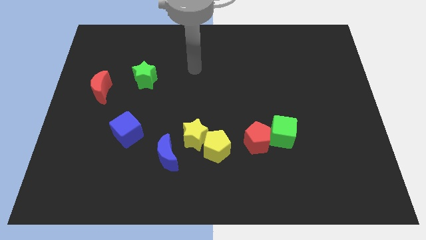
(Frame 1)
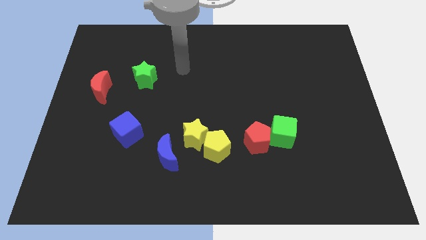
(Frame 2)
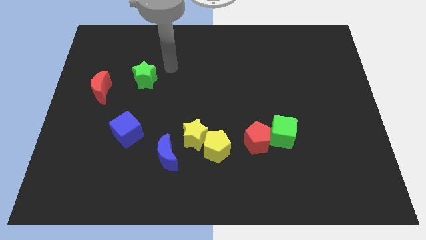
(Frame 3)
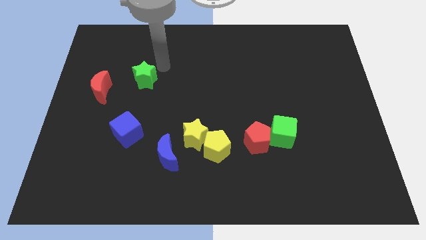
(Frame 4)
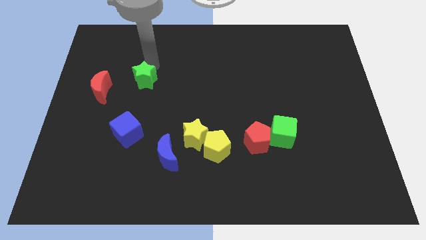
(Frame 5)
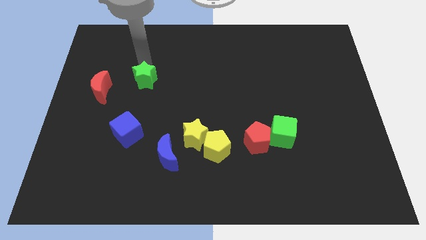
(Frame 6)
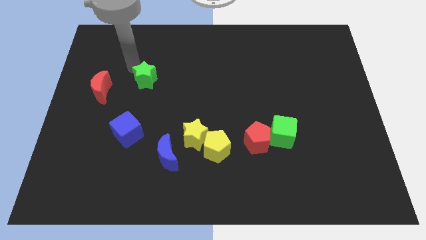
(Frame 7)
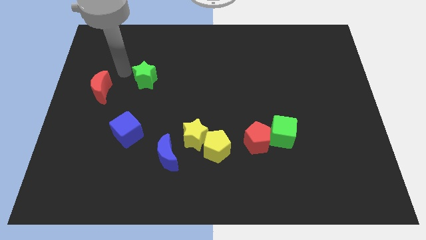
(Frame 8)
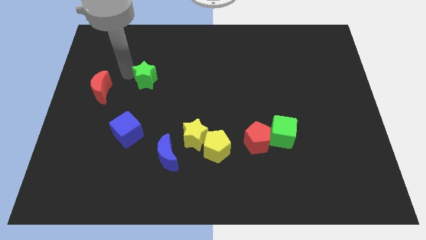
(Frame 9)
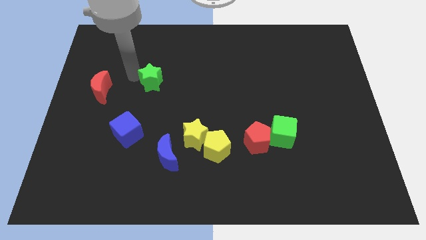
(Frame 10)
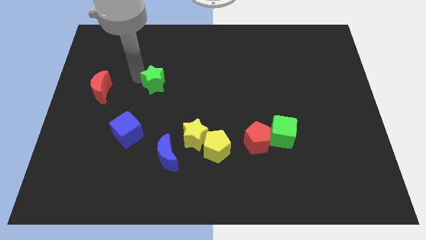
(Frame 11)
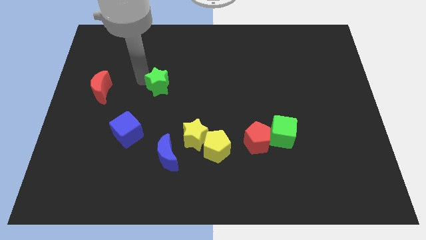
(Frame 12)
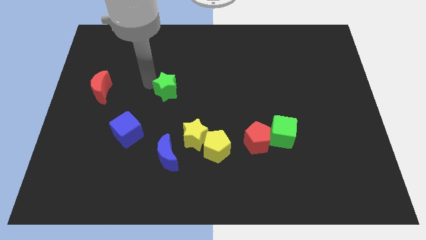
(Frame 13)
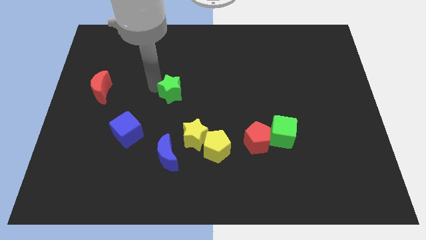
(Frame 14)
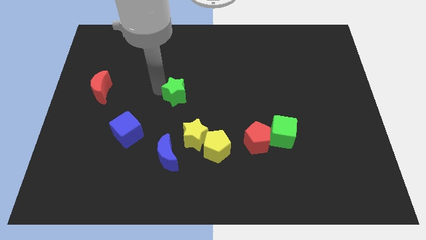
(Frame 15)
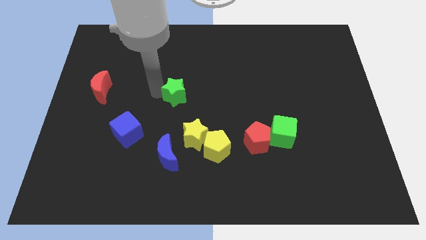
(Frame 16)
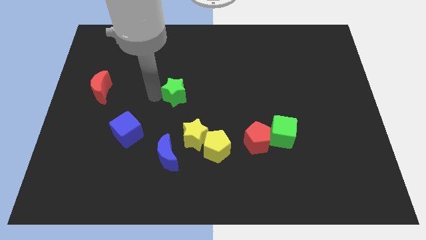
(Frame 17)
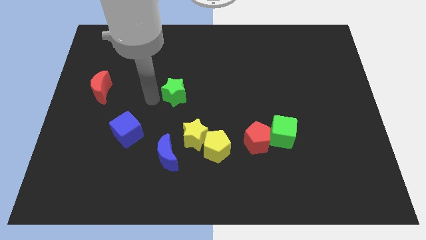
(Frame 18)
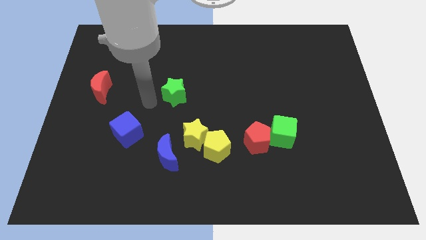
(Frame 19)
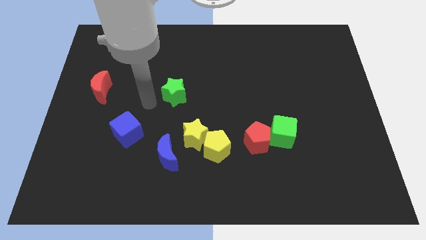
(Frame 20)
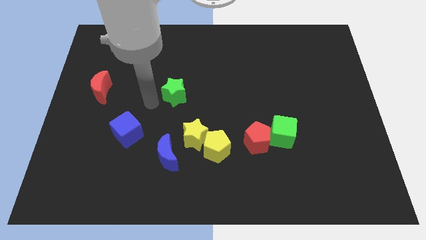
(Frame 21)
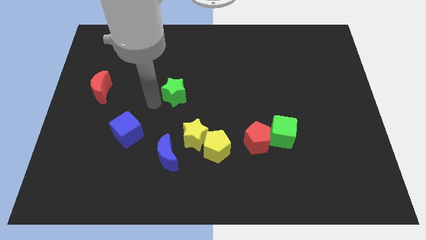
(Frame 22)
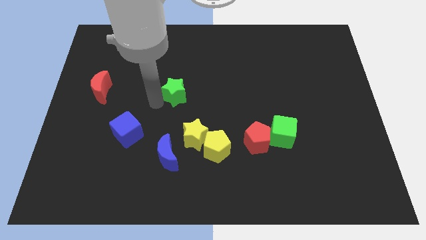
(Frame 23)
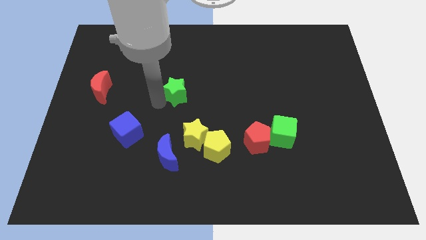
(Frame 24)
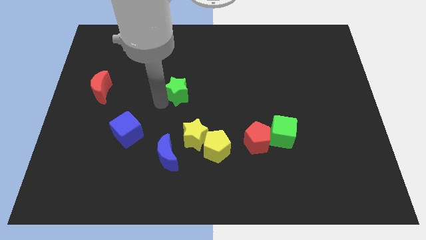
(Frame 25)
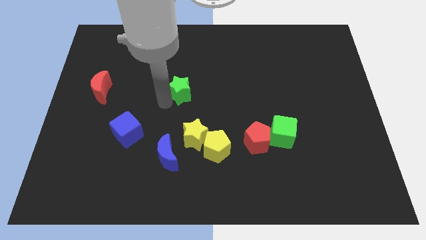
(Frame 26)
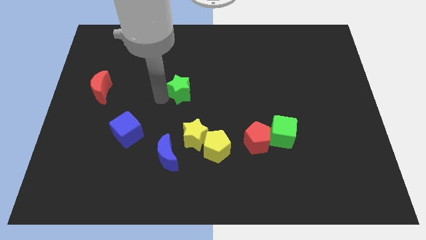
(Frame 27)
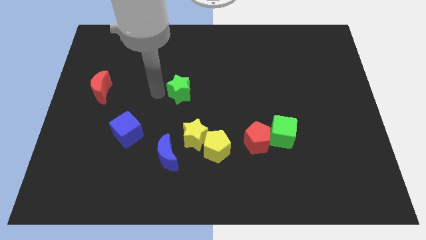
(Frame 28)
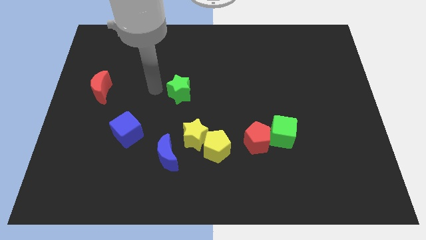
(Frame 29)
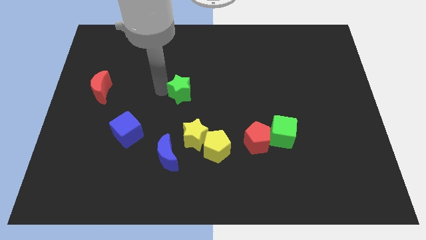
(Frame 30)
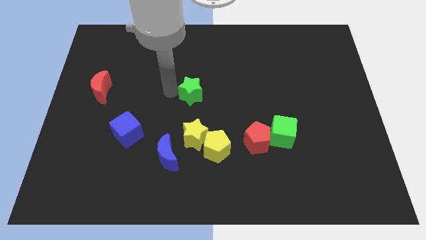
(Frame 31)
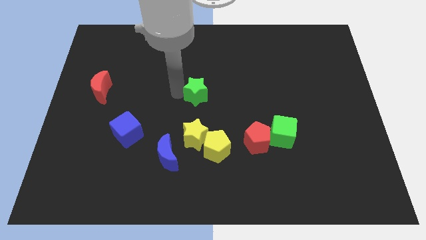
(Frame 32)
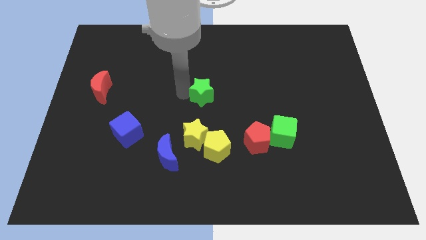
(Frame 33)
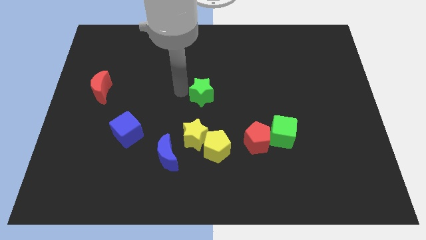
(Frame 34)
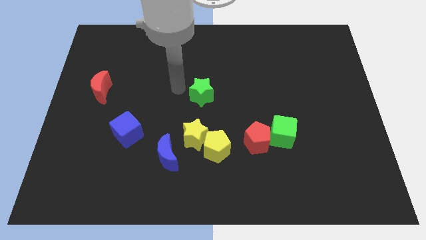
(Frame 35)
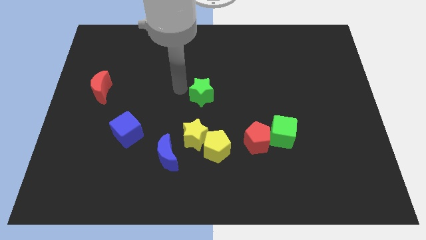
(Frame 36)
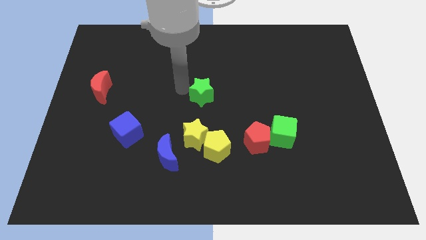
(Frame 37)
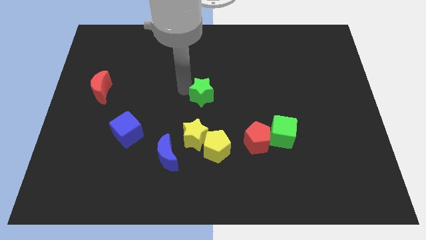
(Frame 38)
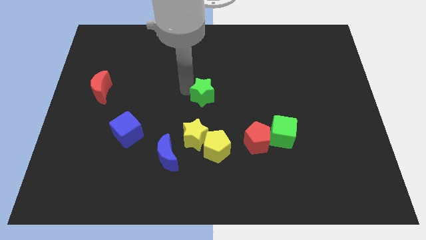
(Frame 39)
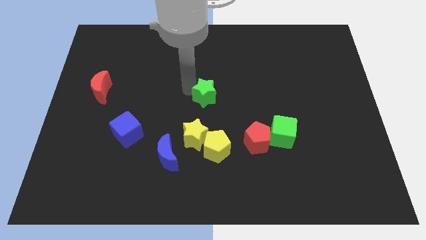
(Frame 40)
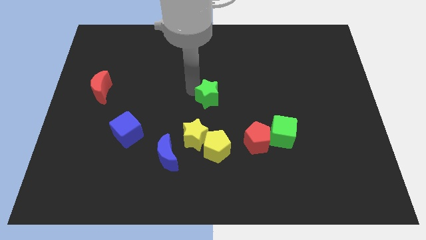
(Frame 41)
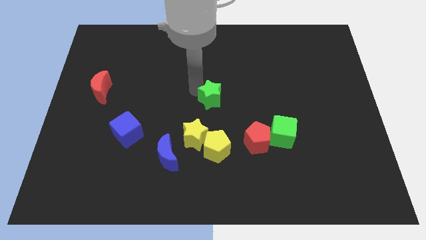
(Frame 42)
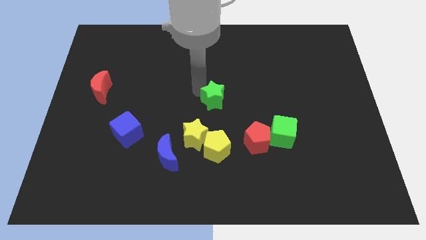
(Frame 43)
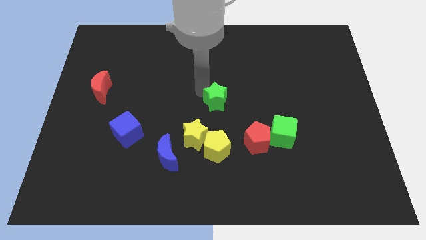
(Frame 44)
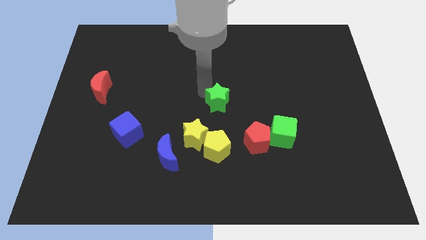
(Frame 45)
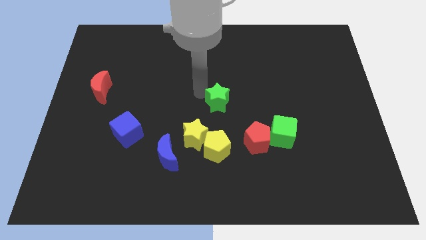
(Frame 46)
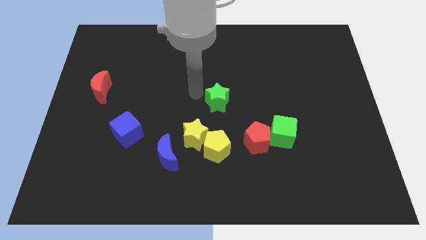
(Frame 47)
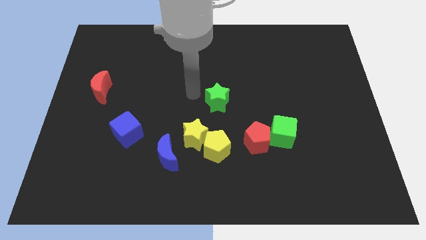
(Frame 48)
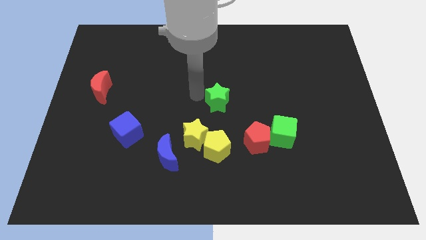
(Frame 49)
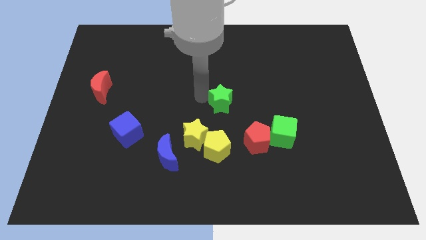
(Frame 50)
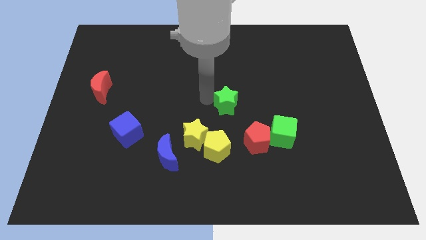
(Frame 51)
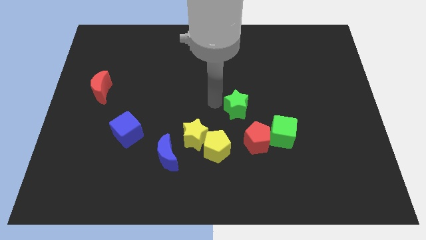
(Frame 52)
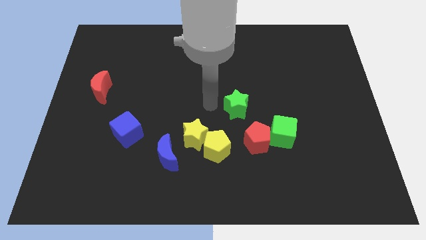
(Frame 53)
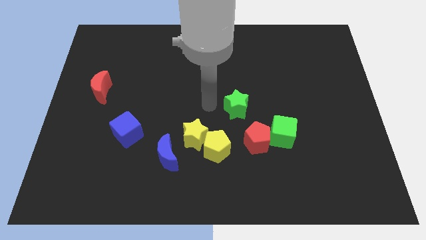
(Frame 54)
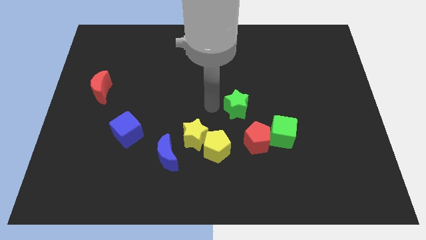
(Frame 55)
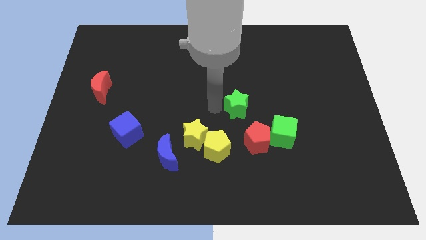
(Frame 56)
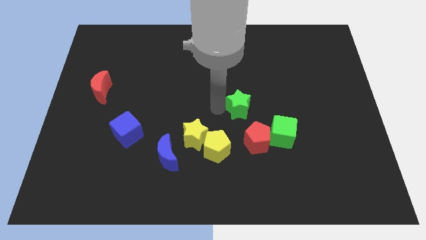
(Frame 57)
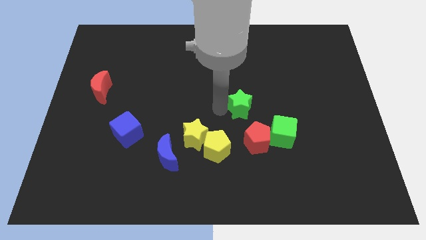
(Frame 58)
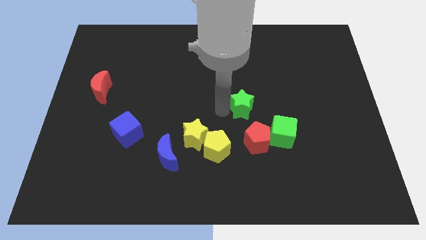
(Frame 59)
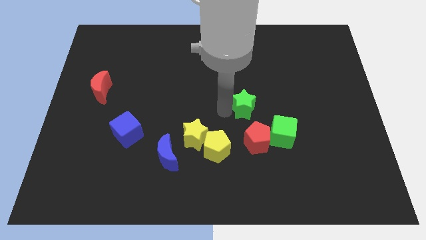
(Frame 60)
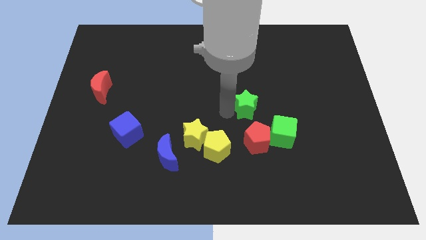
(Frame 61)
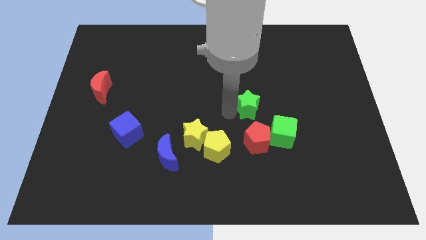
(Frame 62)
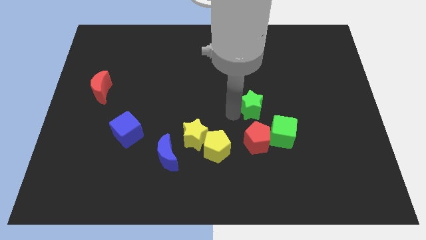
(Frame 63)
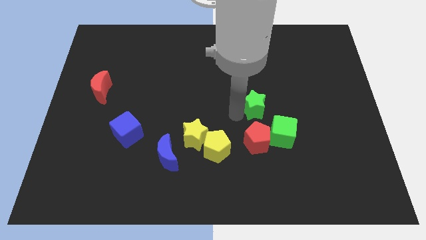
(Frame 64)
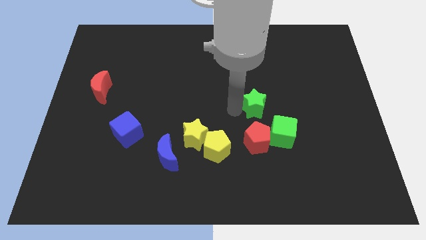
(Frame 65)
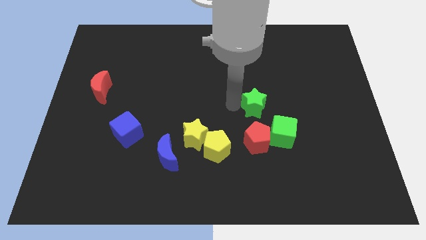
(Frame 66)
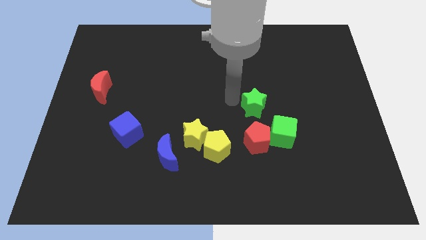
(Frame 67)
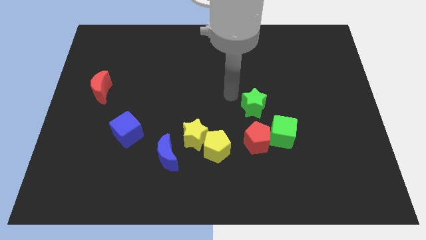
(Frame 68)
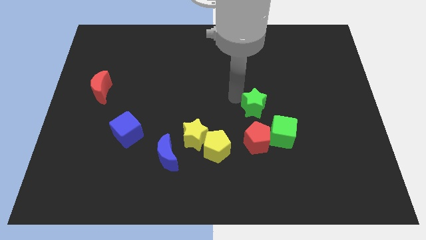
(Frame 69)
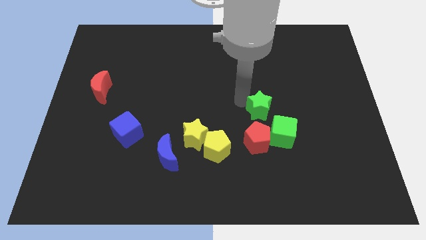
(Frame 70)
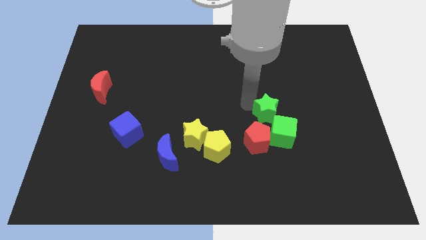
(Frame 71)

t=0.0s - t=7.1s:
push the green star to the top right of the red pentagon
